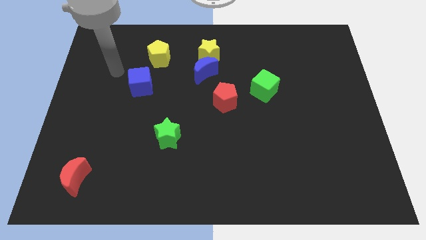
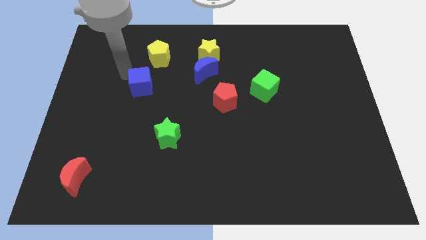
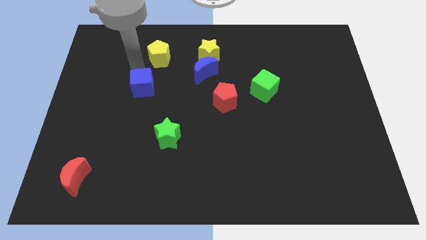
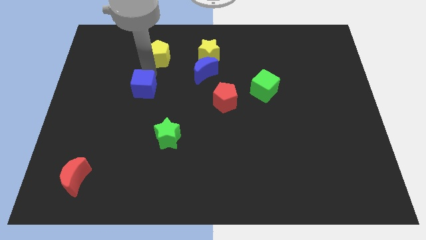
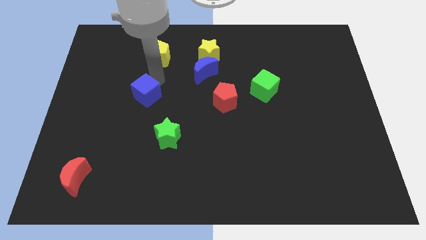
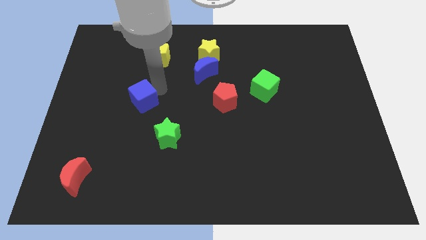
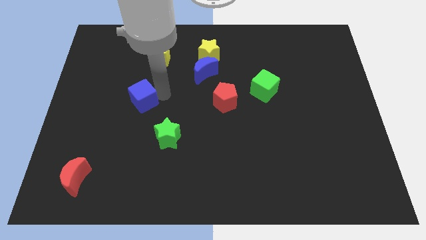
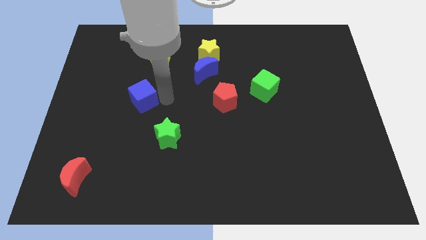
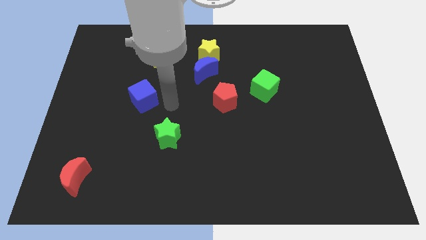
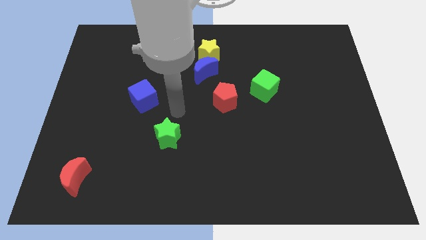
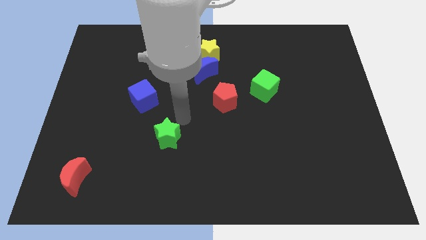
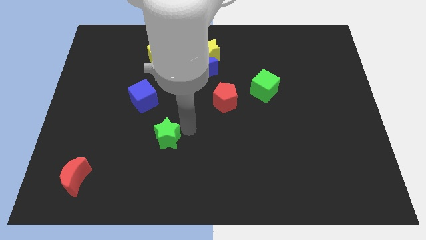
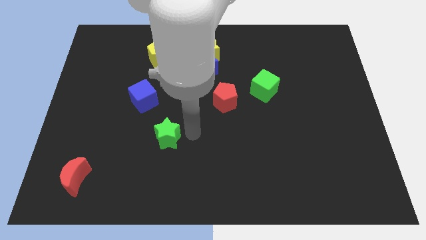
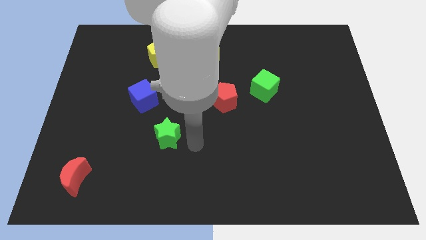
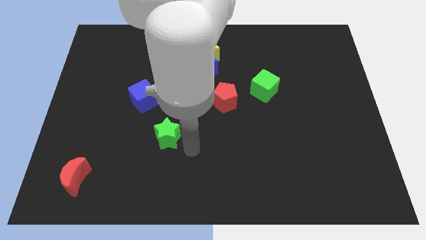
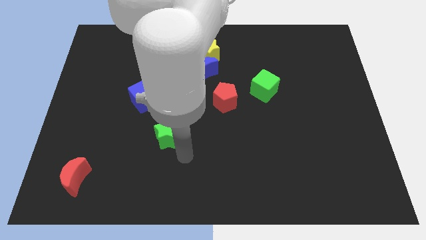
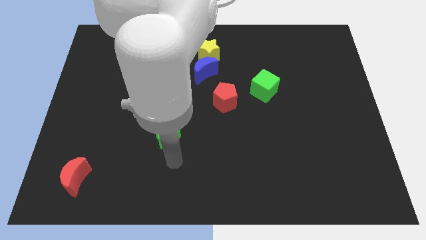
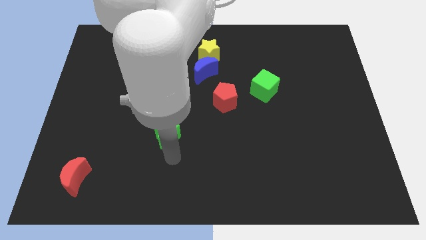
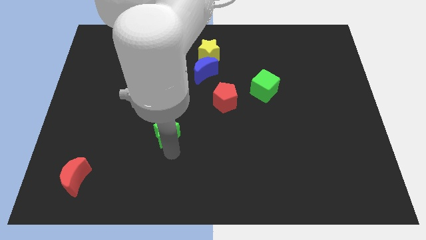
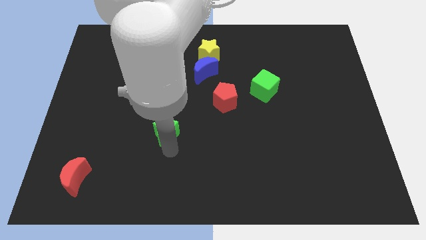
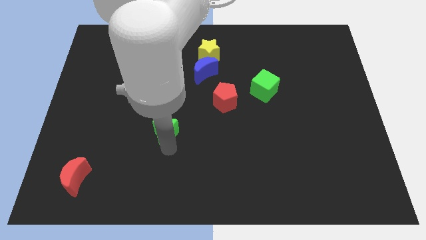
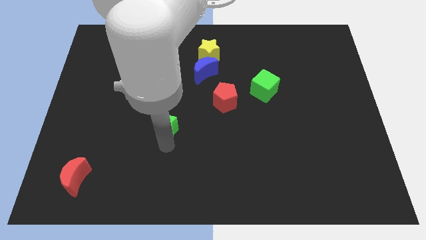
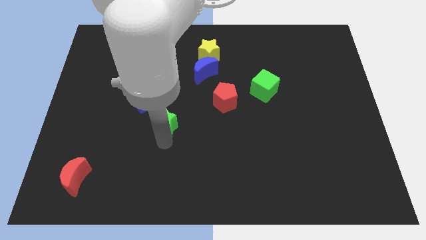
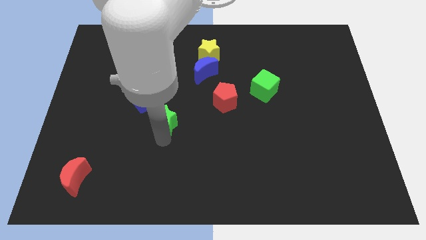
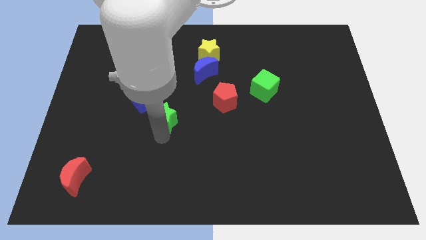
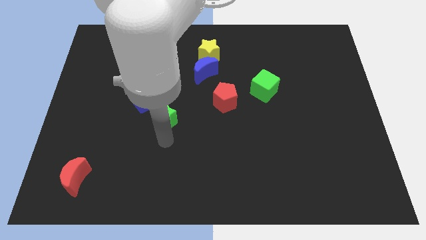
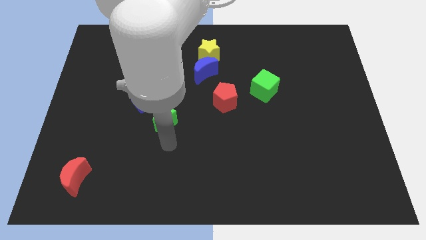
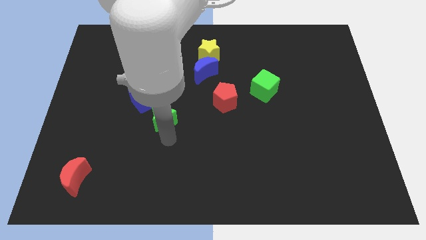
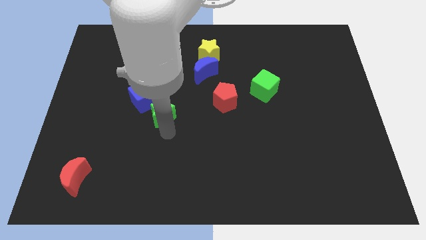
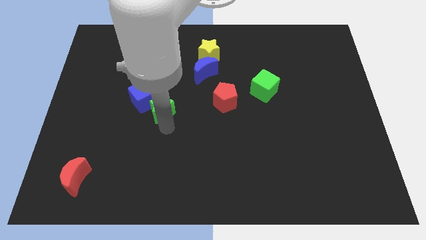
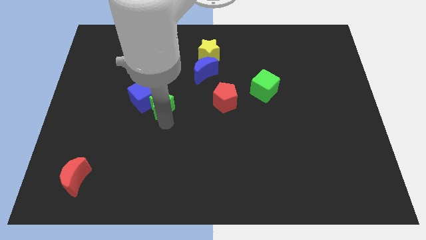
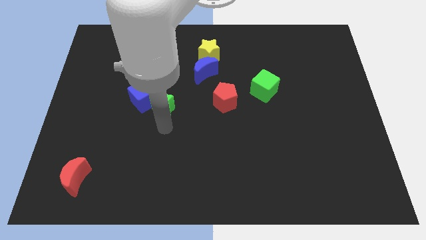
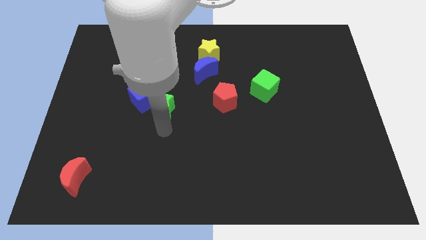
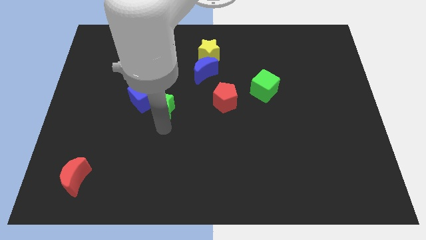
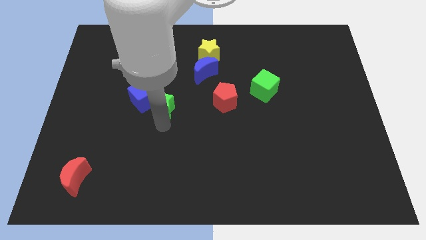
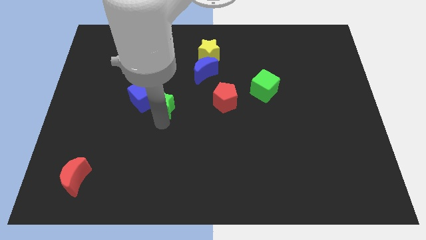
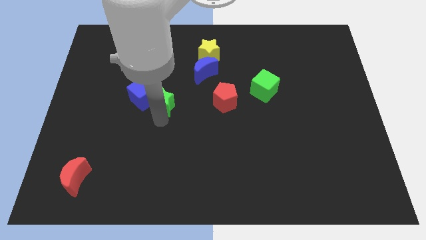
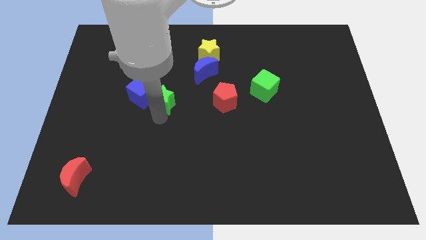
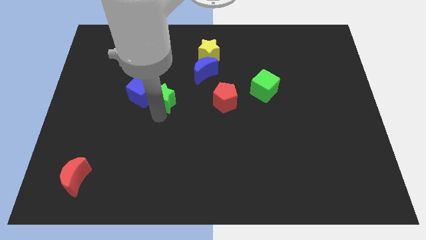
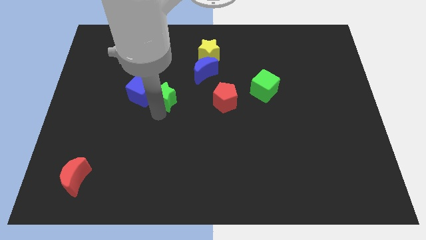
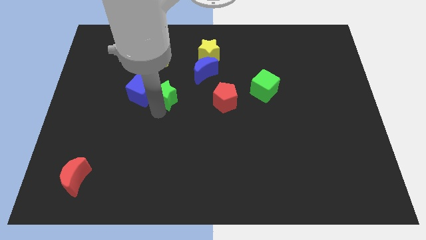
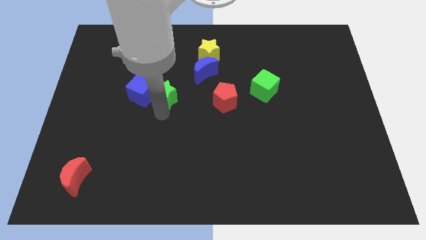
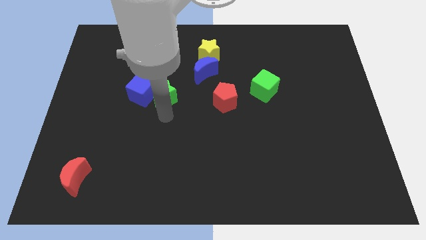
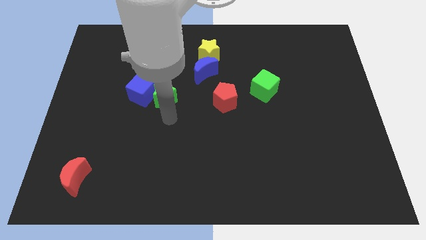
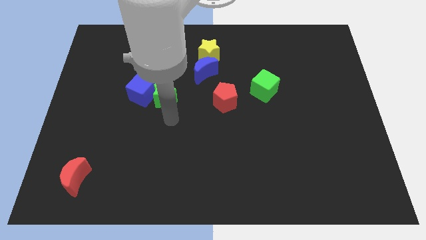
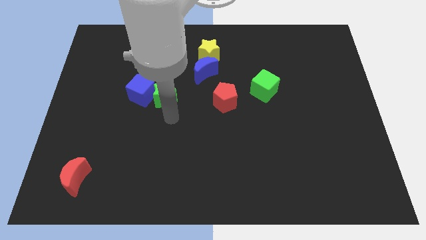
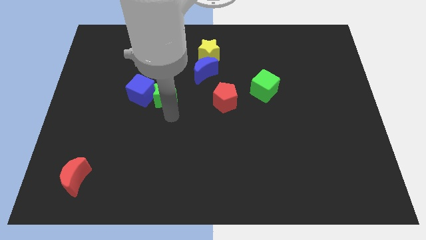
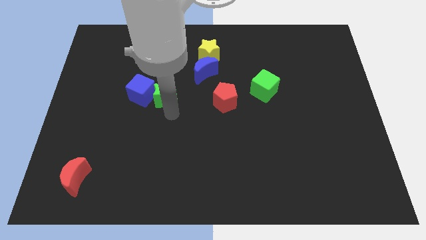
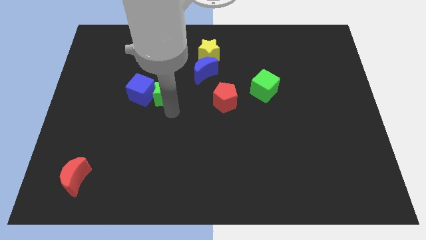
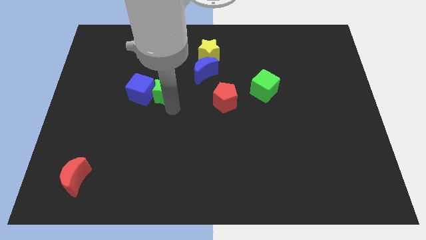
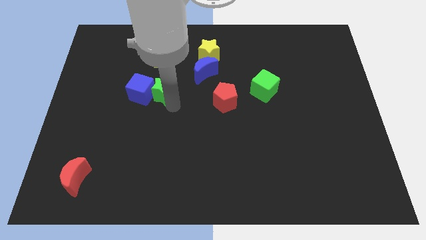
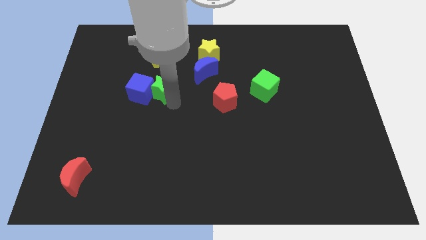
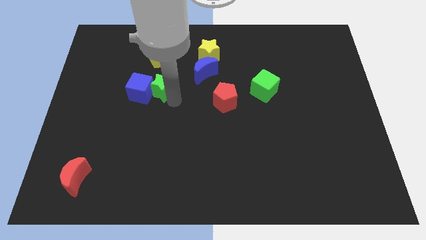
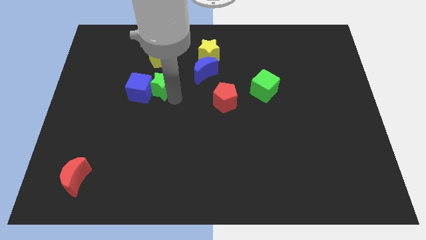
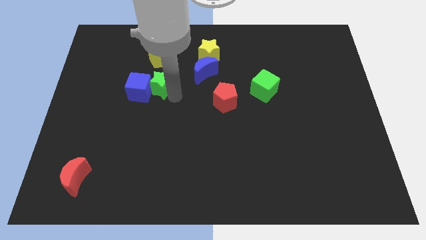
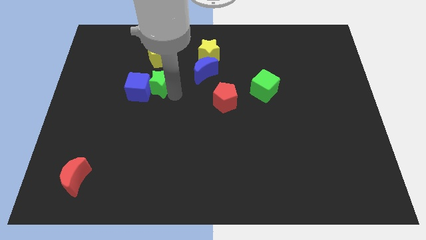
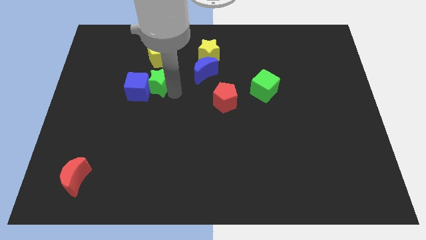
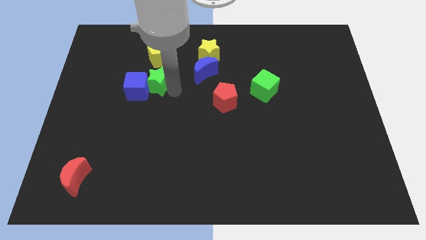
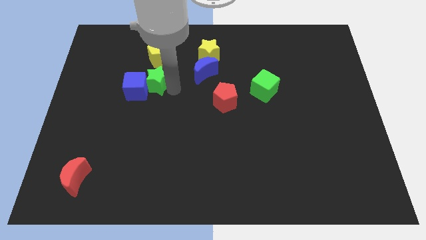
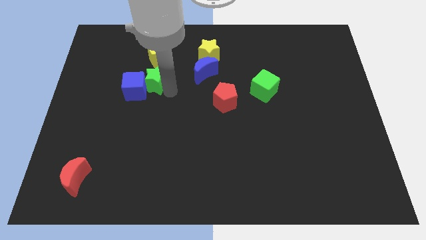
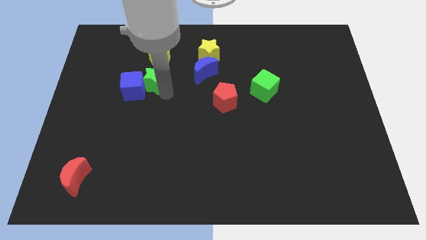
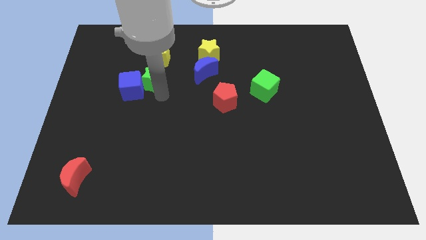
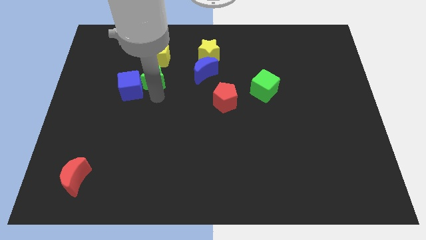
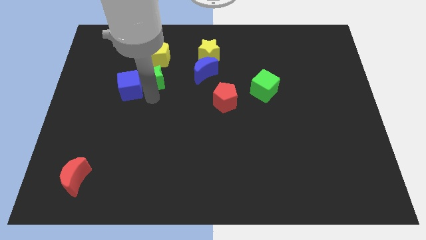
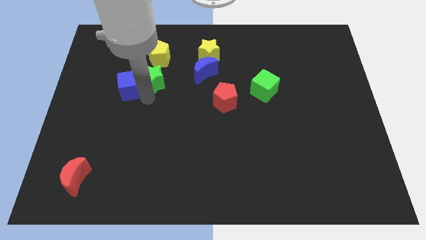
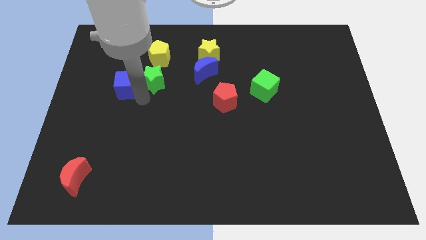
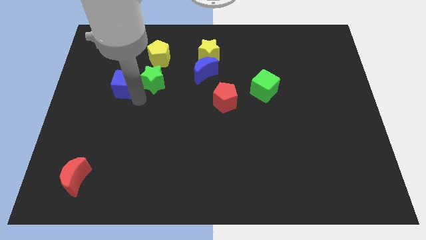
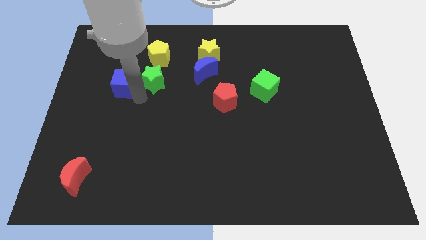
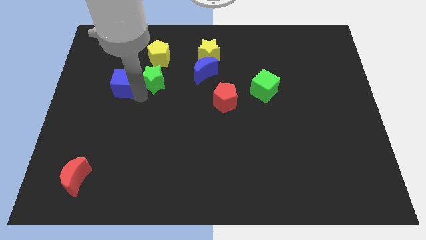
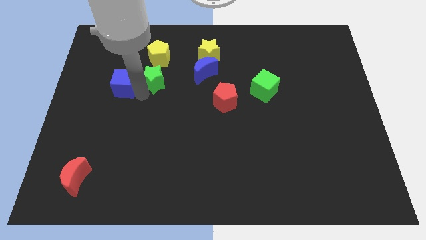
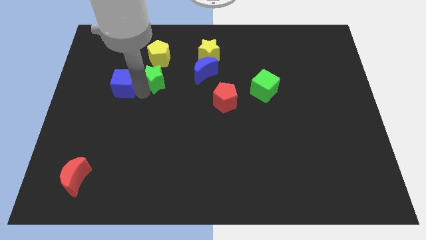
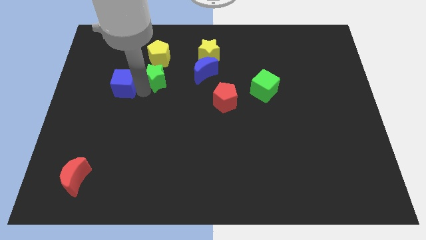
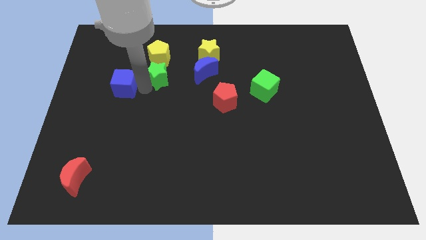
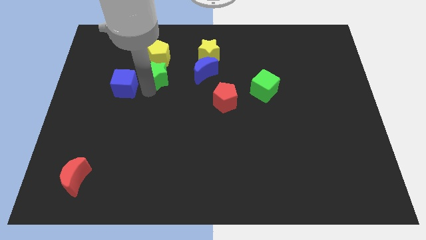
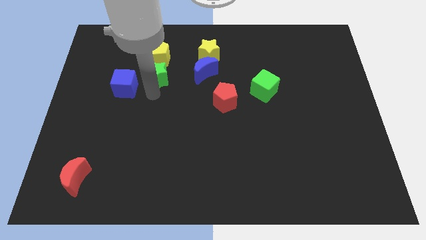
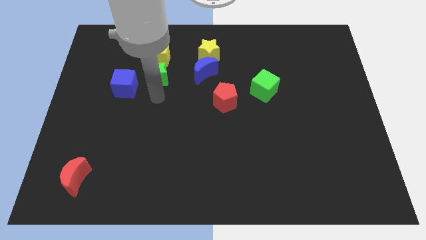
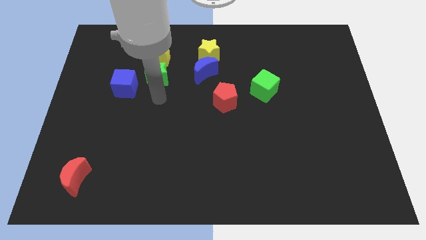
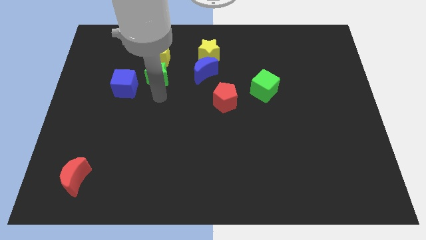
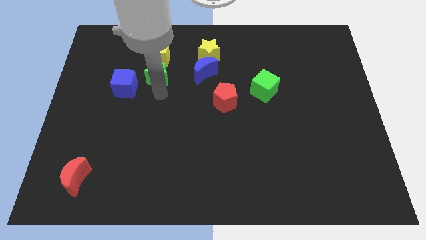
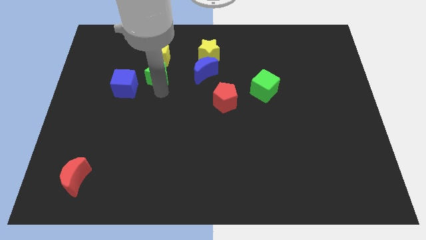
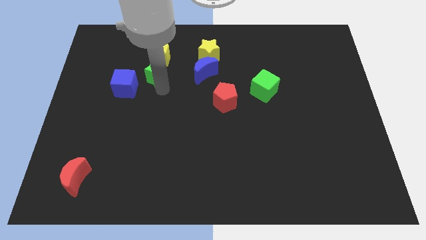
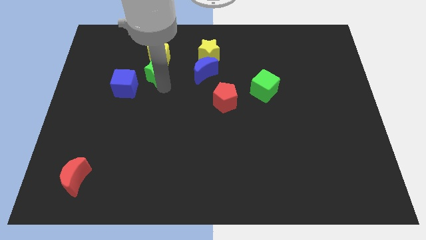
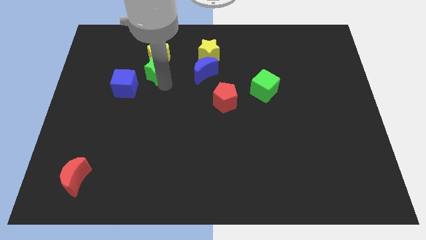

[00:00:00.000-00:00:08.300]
put the green star next to the yellow pentagon
